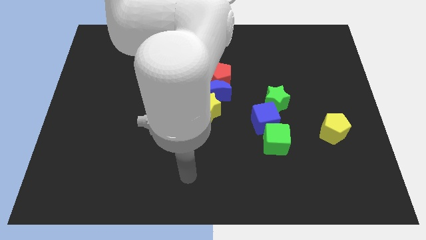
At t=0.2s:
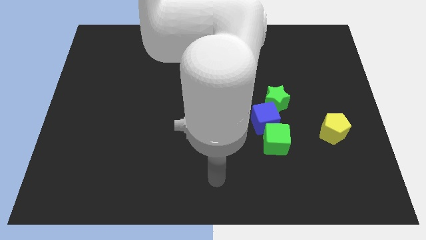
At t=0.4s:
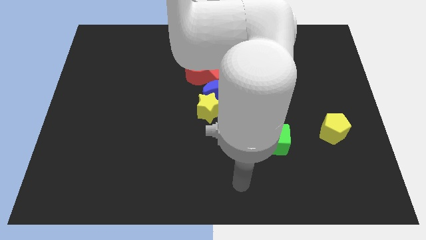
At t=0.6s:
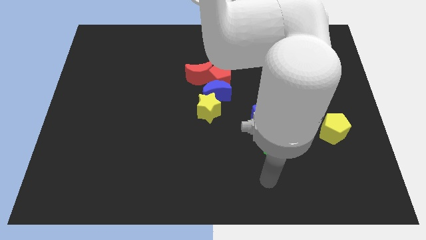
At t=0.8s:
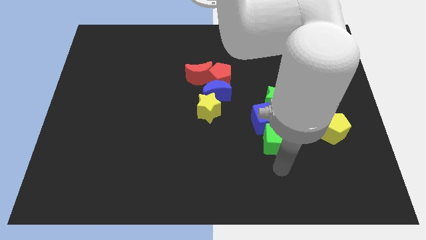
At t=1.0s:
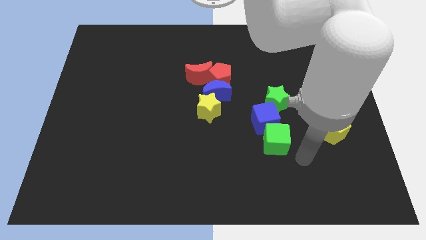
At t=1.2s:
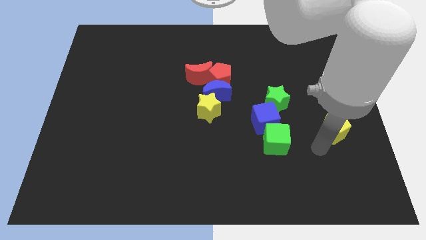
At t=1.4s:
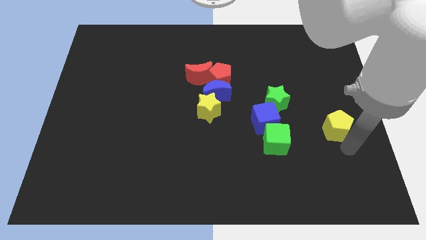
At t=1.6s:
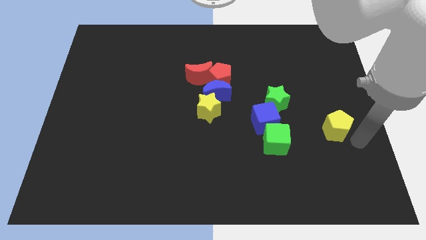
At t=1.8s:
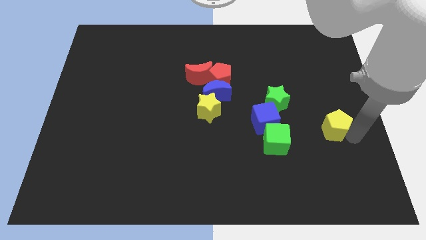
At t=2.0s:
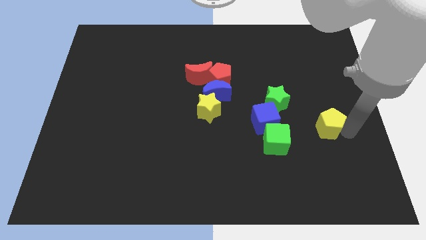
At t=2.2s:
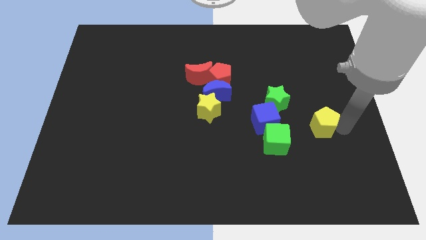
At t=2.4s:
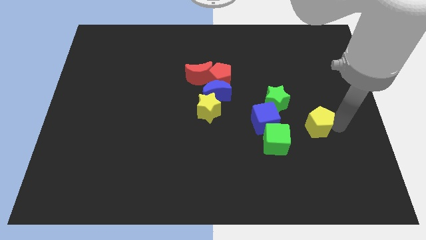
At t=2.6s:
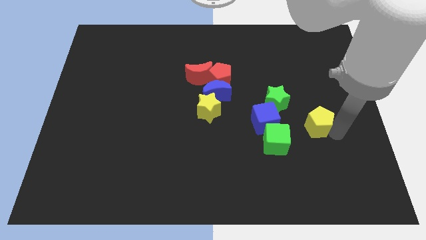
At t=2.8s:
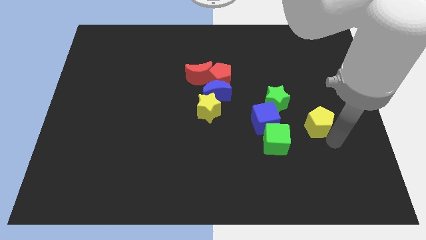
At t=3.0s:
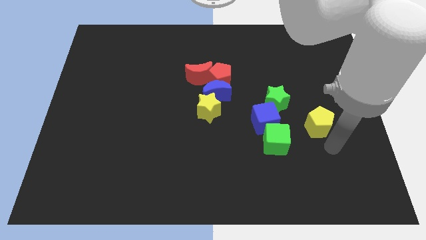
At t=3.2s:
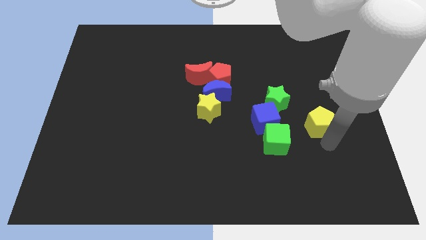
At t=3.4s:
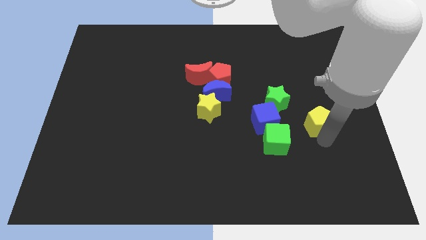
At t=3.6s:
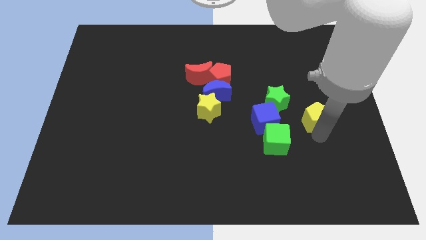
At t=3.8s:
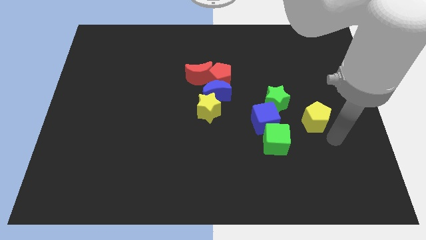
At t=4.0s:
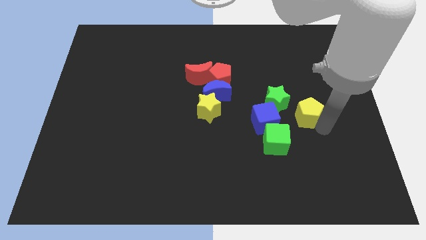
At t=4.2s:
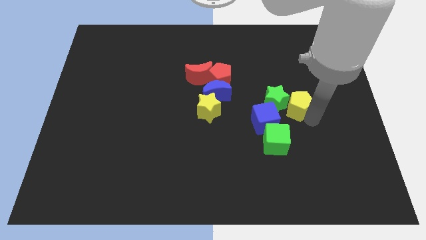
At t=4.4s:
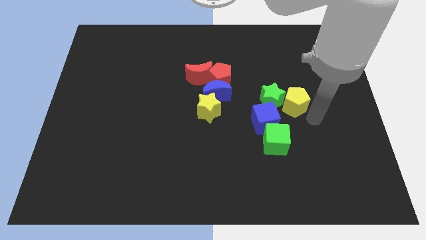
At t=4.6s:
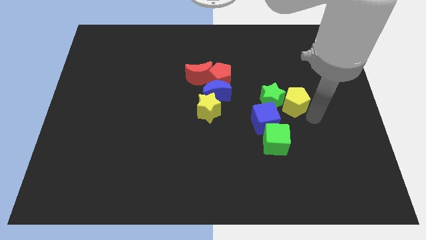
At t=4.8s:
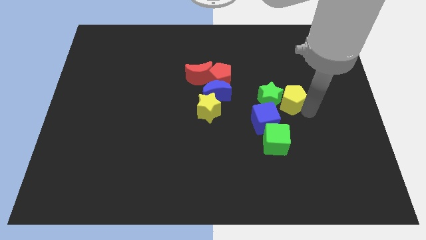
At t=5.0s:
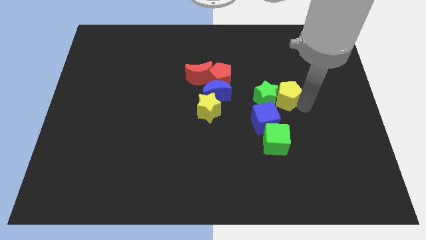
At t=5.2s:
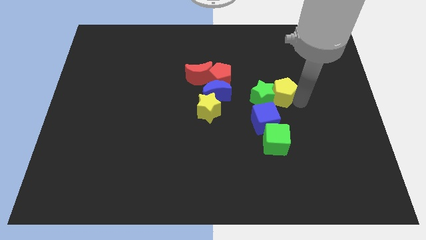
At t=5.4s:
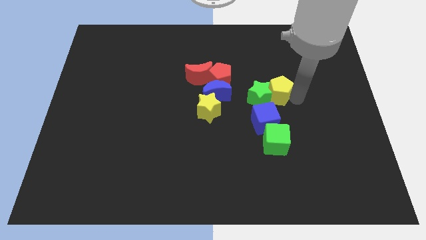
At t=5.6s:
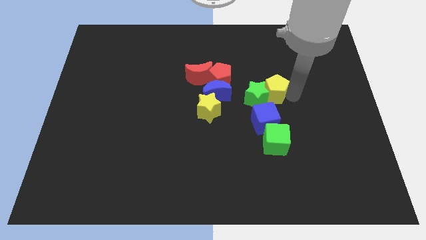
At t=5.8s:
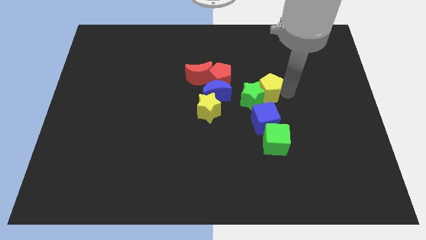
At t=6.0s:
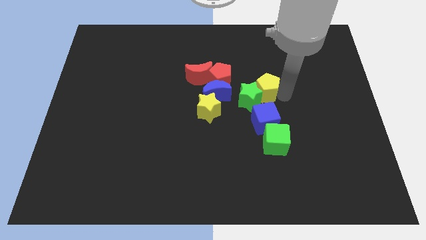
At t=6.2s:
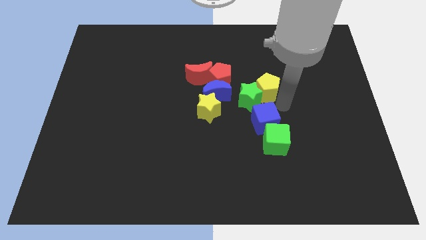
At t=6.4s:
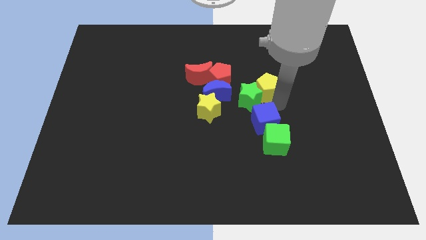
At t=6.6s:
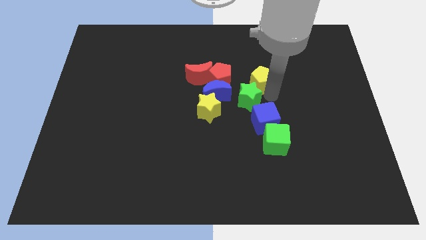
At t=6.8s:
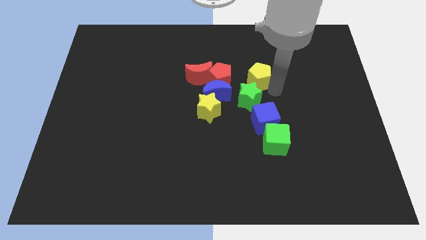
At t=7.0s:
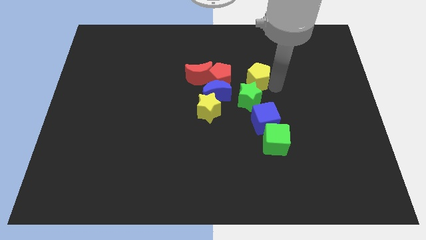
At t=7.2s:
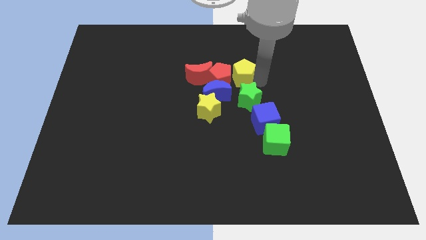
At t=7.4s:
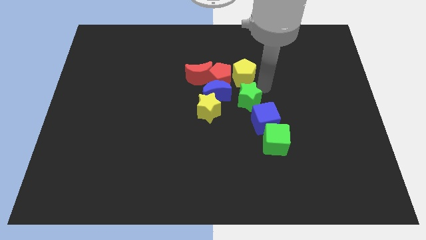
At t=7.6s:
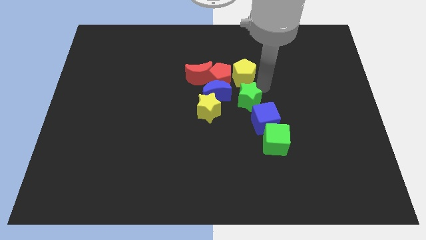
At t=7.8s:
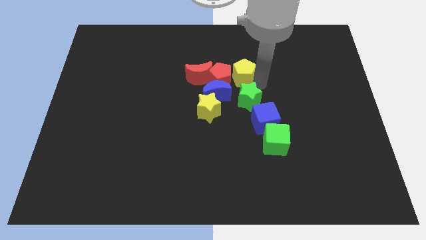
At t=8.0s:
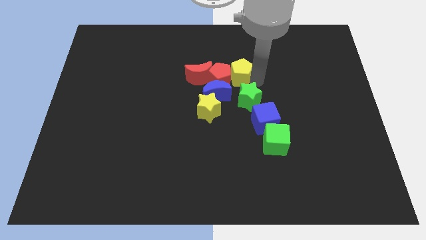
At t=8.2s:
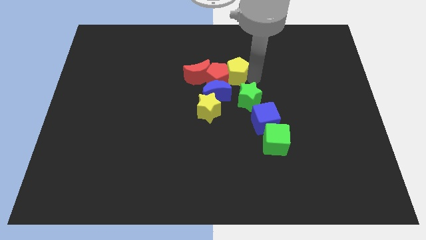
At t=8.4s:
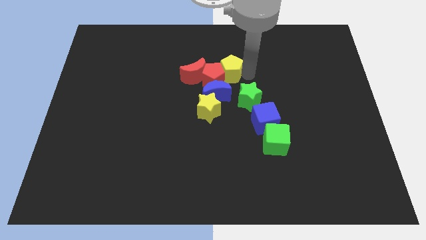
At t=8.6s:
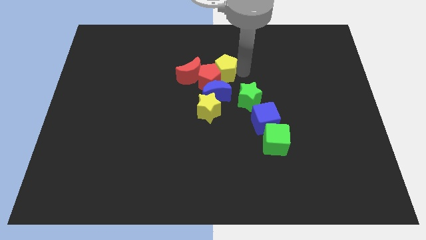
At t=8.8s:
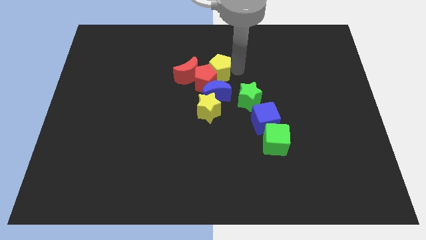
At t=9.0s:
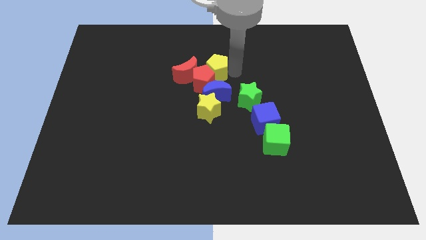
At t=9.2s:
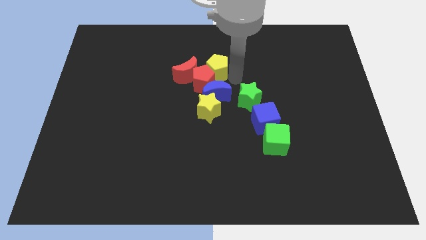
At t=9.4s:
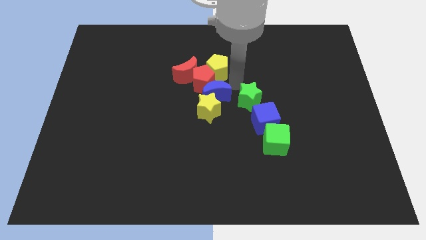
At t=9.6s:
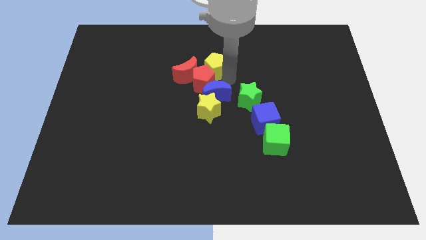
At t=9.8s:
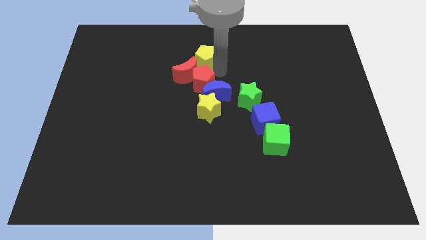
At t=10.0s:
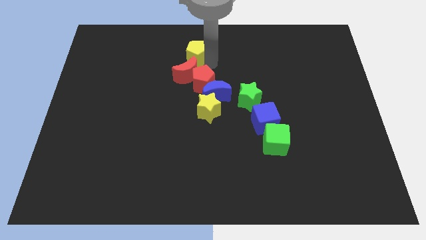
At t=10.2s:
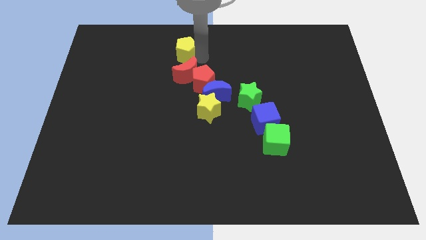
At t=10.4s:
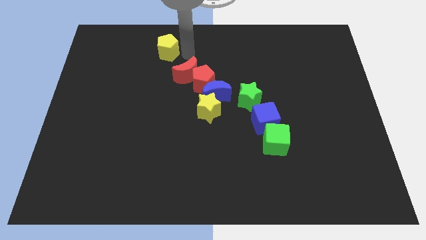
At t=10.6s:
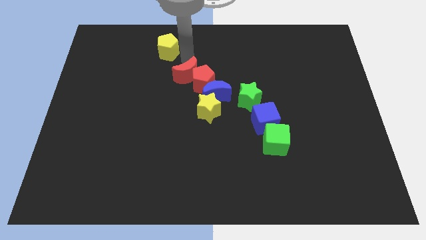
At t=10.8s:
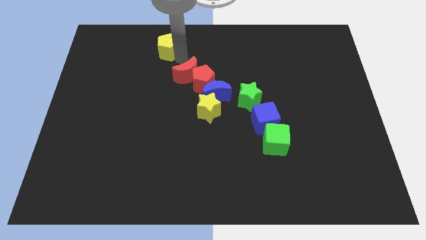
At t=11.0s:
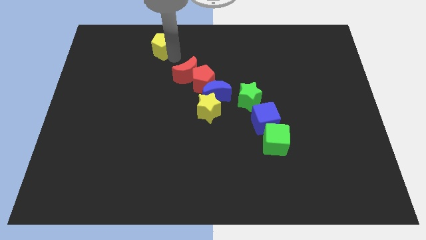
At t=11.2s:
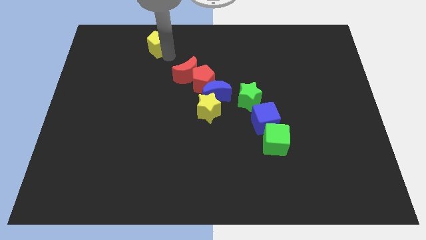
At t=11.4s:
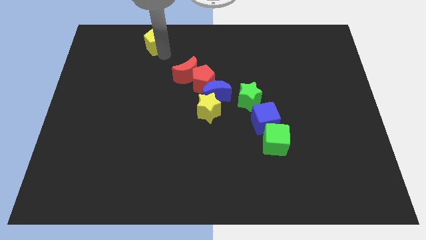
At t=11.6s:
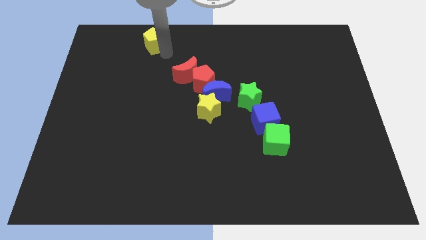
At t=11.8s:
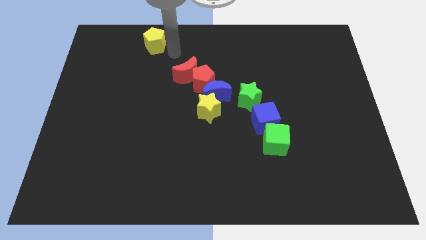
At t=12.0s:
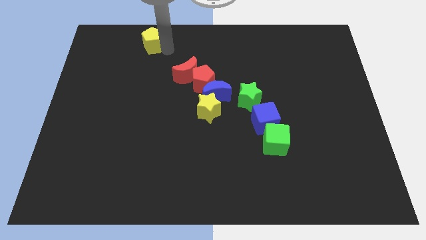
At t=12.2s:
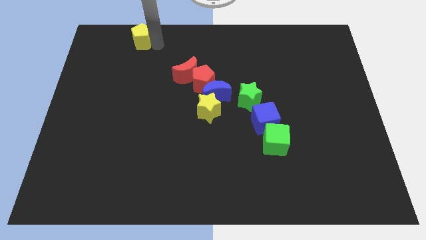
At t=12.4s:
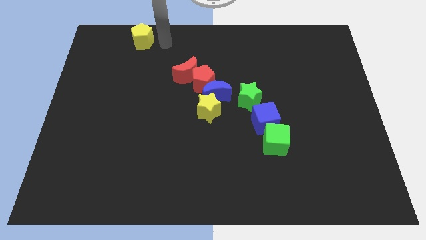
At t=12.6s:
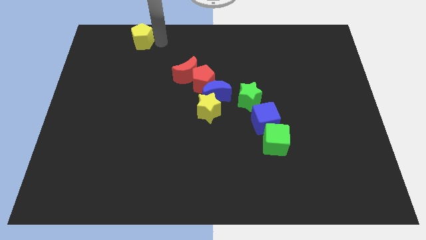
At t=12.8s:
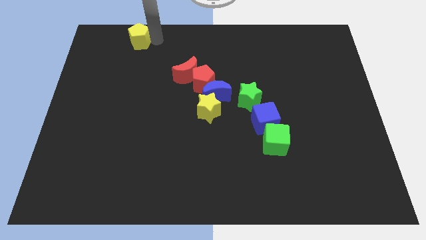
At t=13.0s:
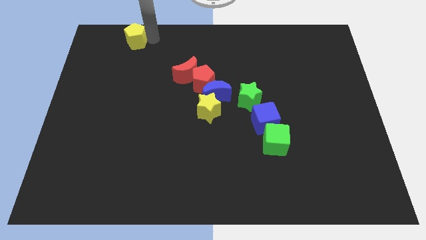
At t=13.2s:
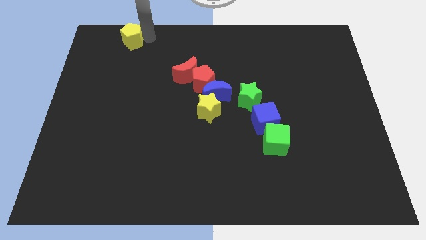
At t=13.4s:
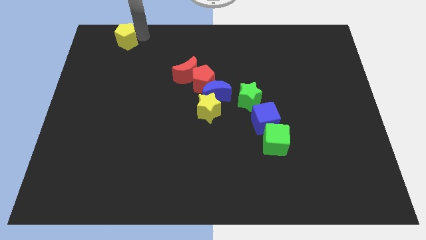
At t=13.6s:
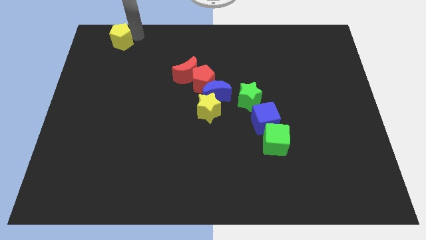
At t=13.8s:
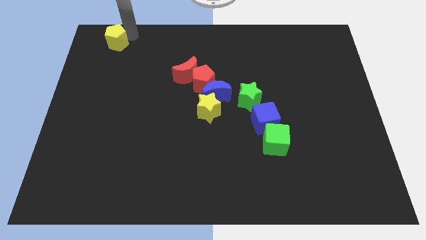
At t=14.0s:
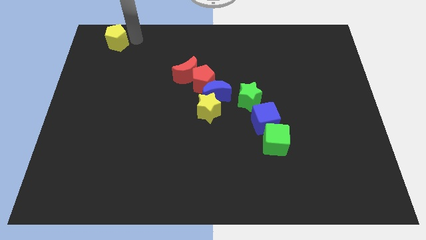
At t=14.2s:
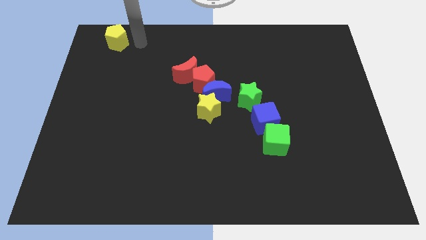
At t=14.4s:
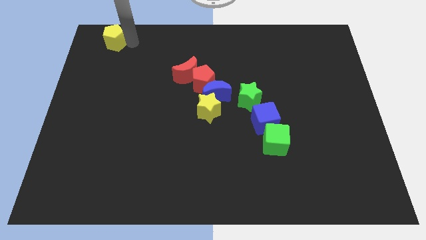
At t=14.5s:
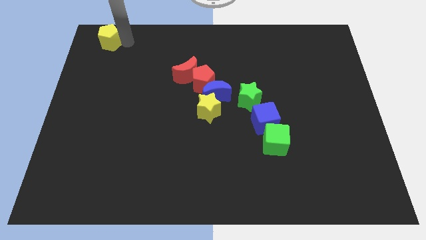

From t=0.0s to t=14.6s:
put the yellow pentagon to the top left
